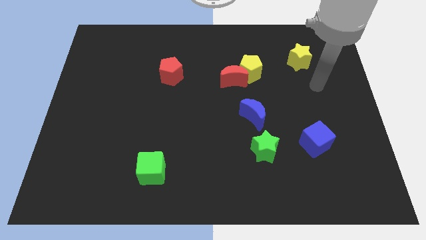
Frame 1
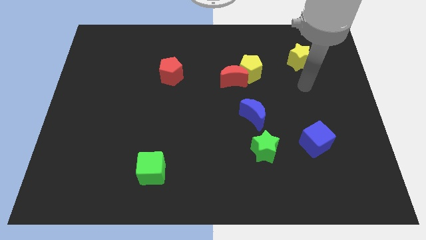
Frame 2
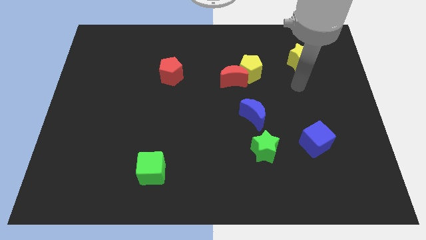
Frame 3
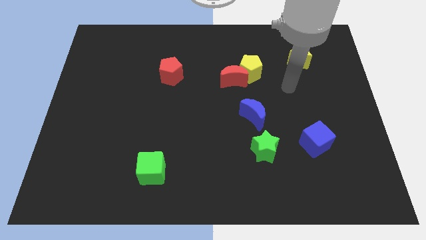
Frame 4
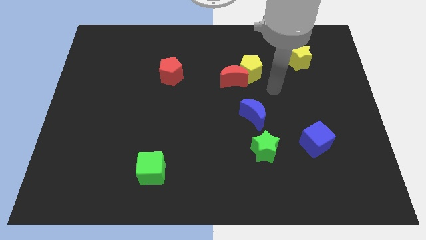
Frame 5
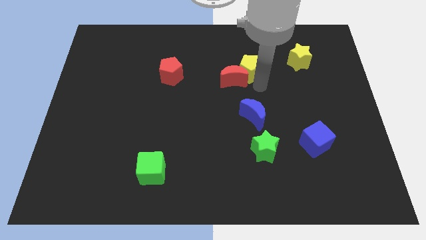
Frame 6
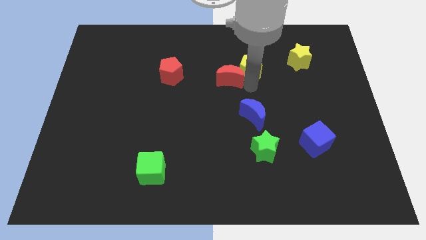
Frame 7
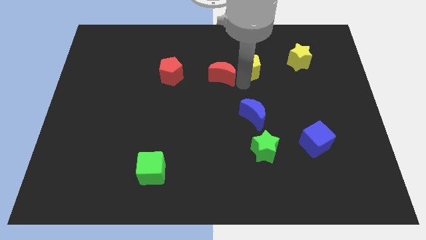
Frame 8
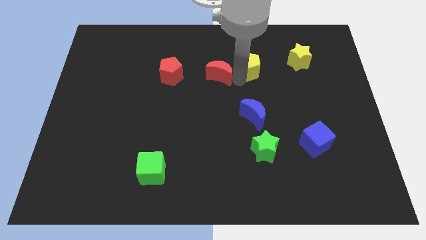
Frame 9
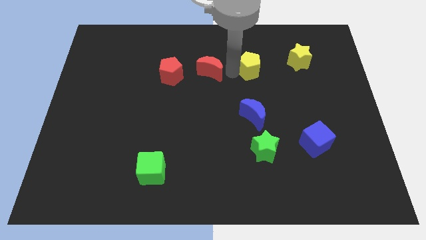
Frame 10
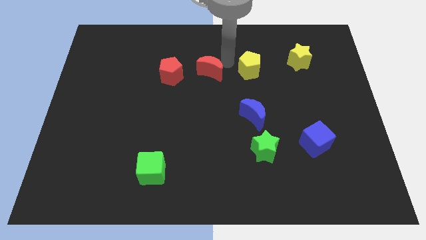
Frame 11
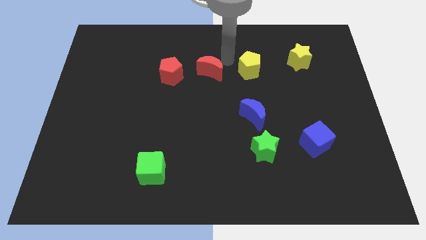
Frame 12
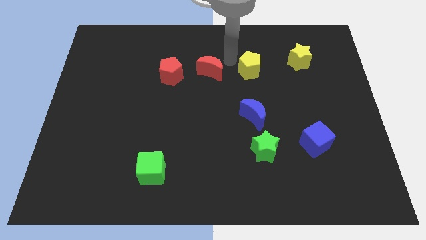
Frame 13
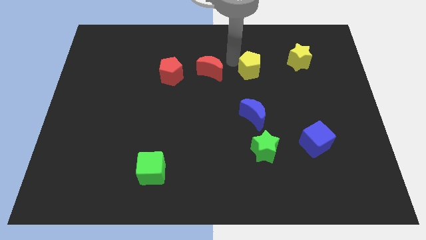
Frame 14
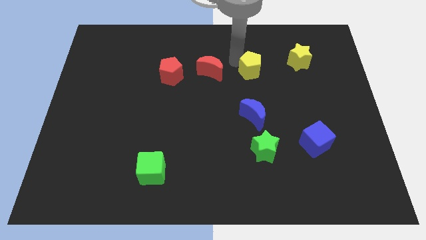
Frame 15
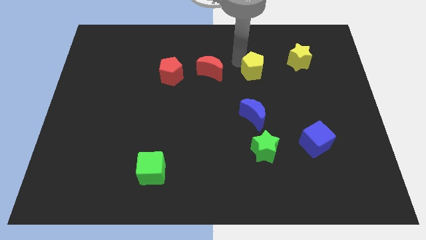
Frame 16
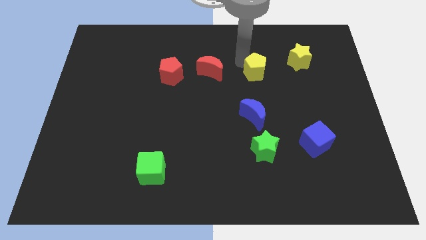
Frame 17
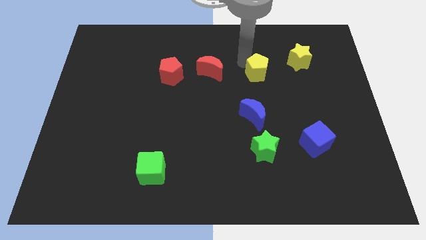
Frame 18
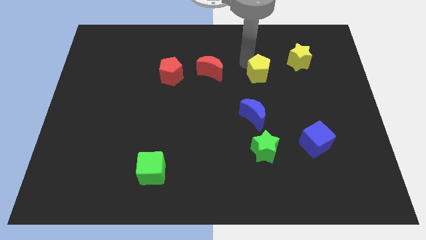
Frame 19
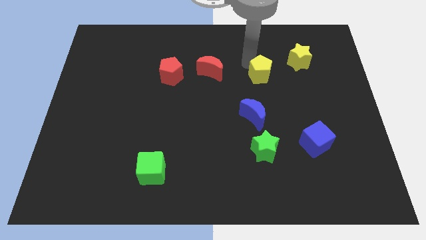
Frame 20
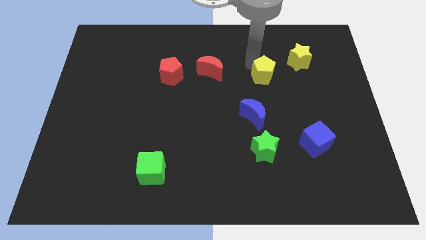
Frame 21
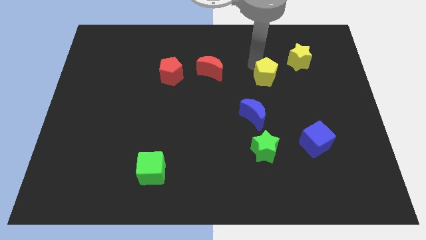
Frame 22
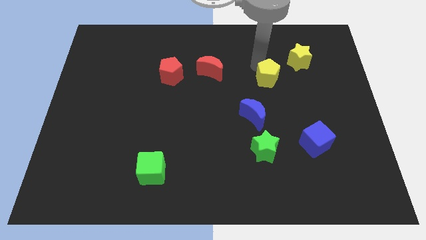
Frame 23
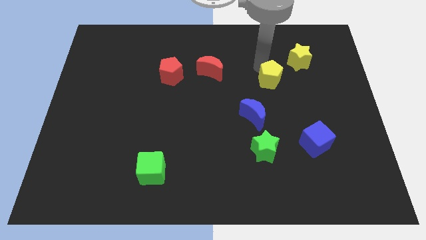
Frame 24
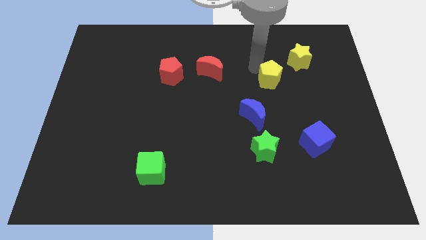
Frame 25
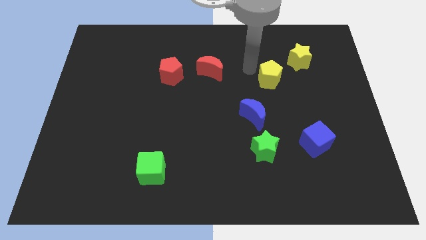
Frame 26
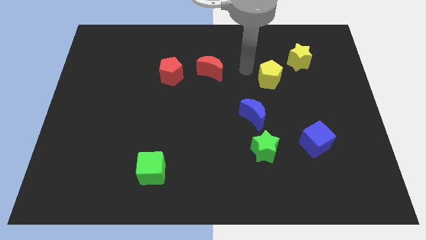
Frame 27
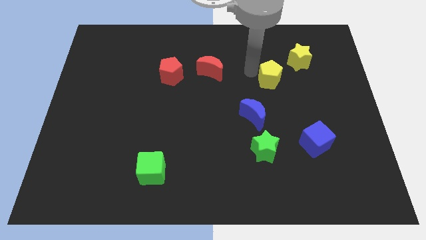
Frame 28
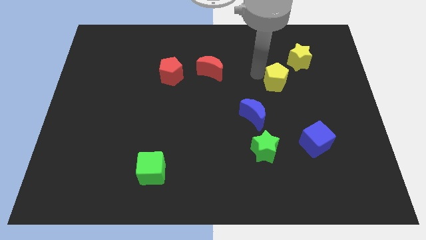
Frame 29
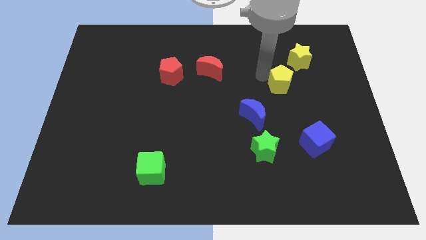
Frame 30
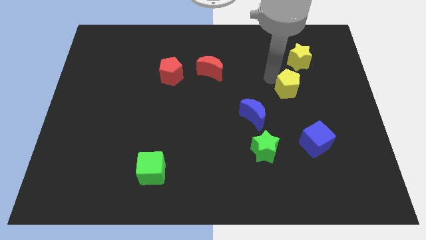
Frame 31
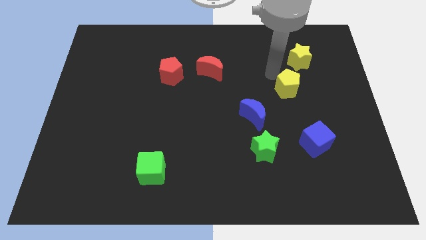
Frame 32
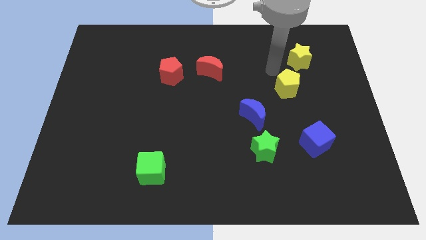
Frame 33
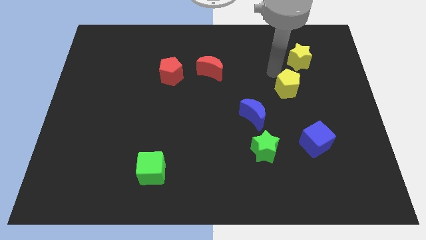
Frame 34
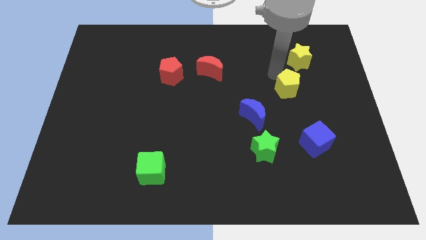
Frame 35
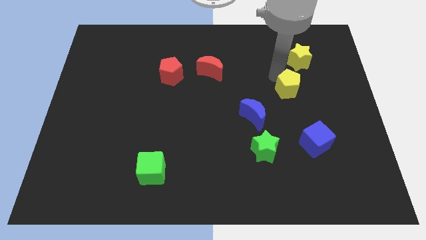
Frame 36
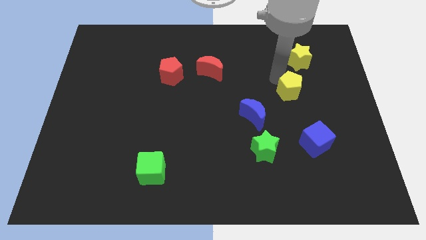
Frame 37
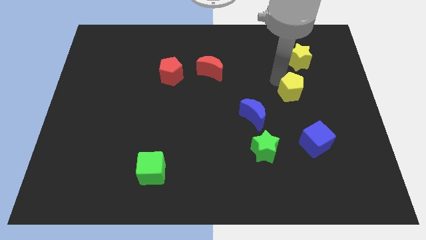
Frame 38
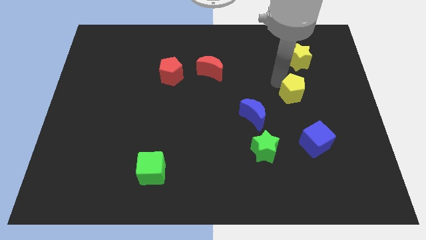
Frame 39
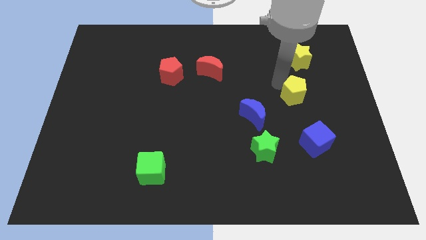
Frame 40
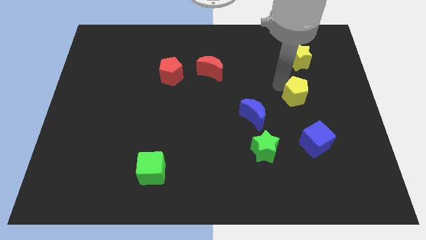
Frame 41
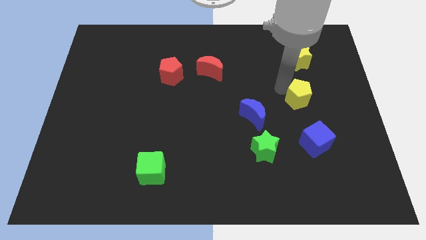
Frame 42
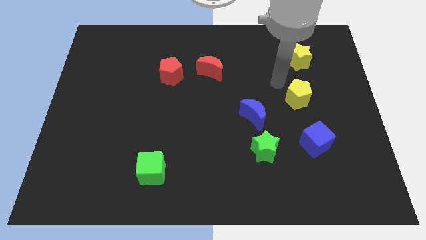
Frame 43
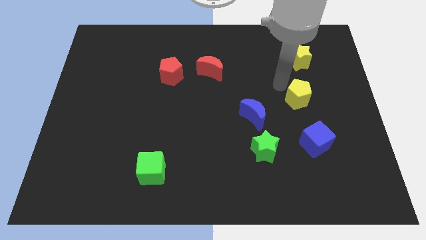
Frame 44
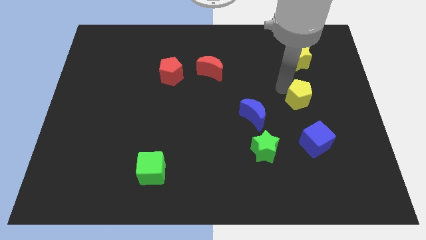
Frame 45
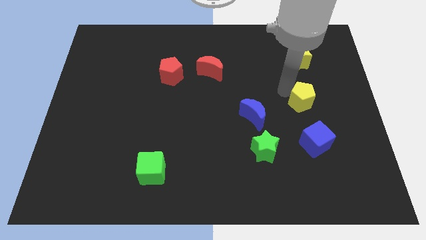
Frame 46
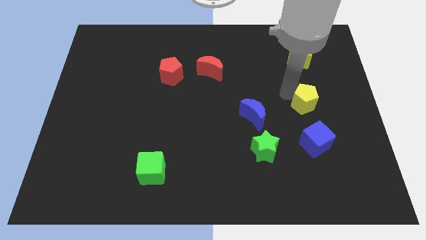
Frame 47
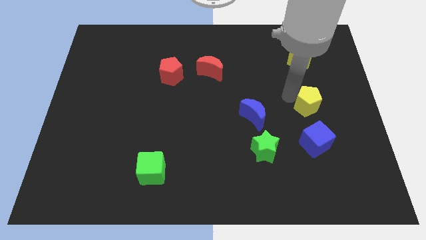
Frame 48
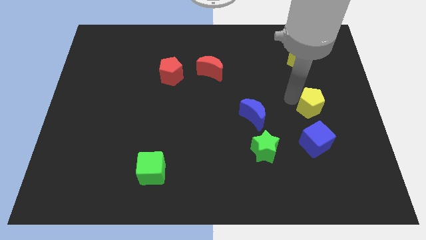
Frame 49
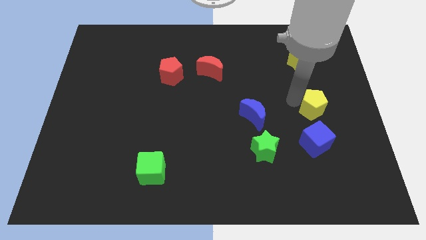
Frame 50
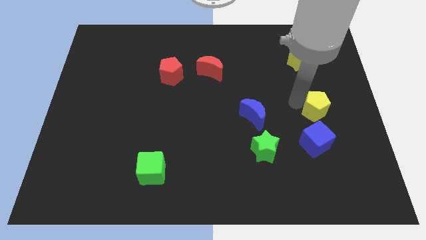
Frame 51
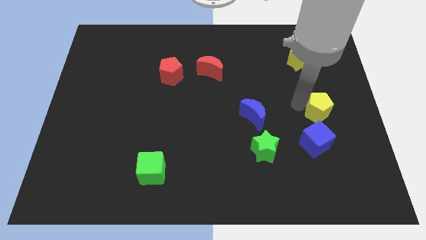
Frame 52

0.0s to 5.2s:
put the yellow pentagon to the top right of the blue cube

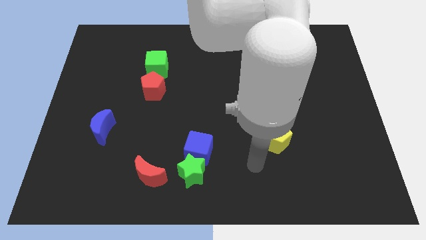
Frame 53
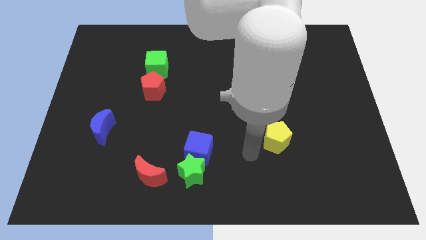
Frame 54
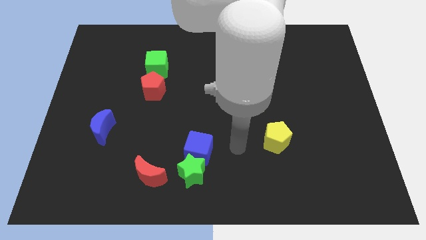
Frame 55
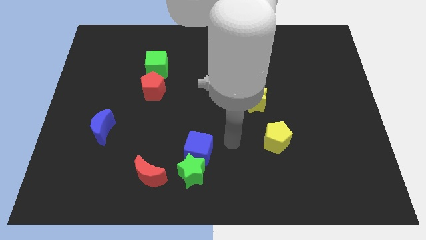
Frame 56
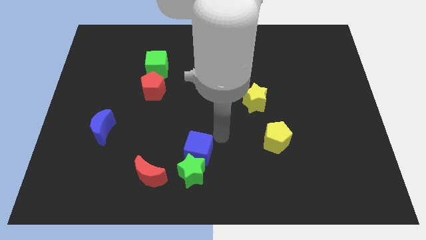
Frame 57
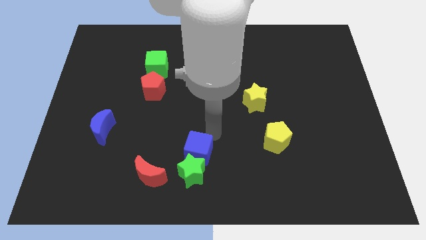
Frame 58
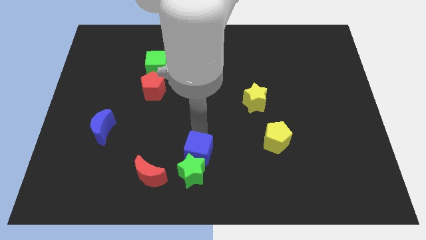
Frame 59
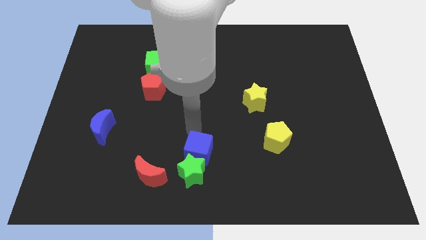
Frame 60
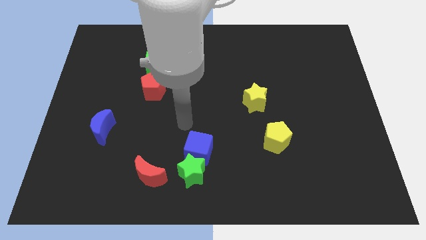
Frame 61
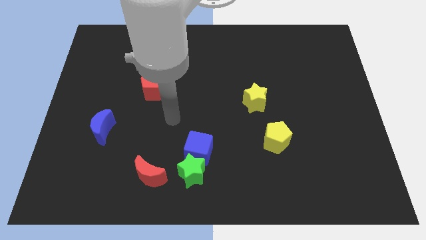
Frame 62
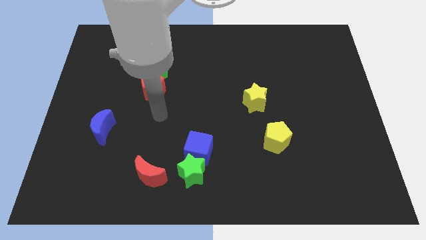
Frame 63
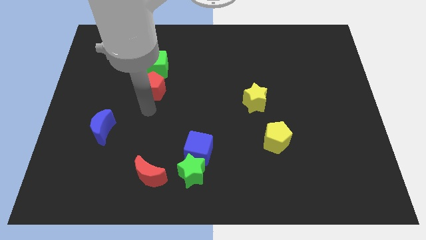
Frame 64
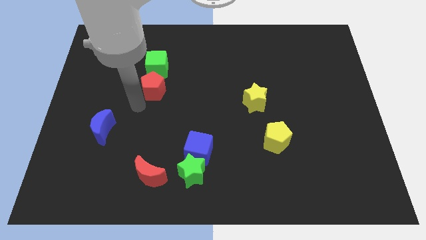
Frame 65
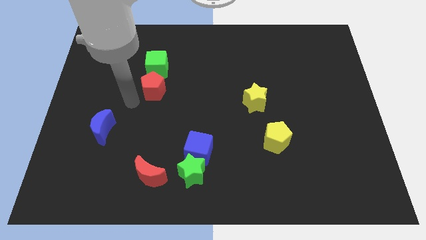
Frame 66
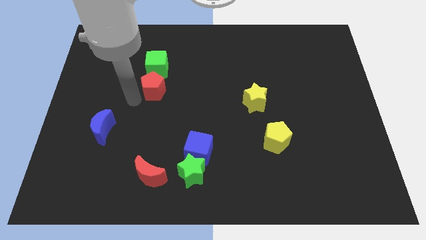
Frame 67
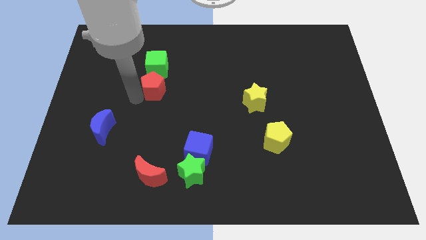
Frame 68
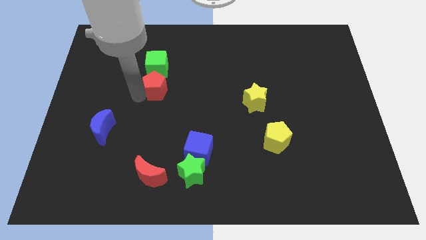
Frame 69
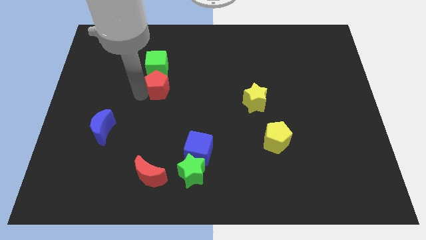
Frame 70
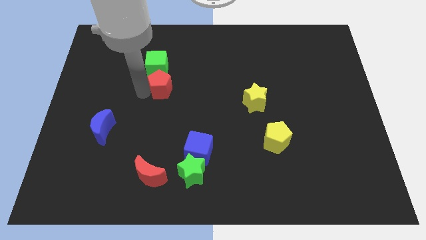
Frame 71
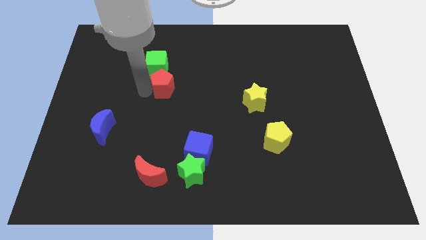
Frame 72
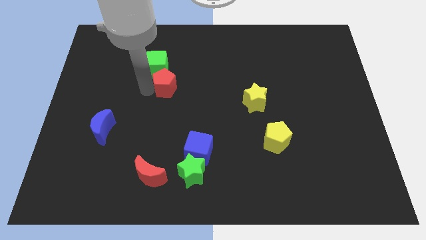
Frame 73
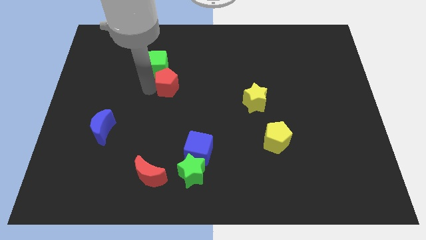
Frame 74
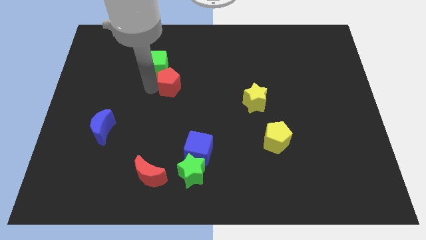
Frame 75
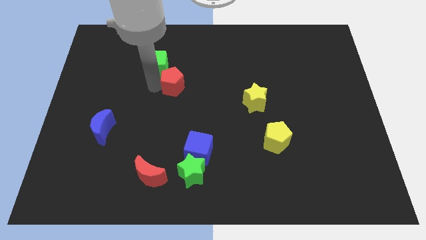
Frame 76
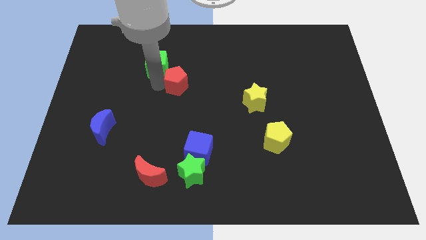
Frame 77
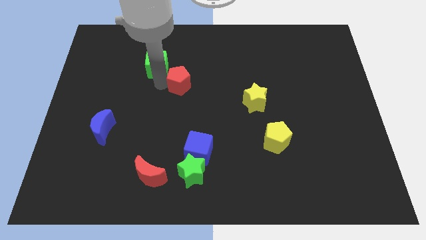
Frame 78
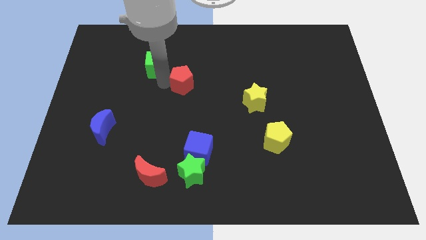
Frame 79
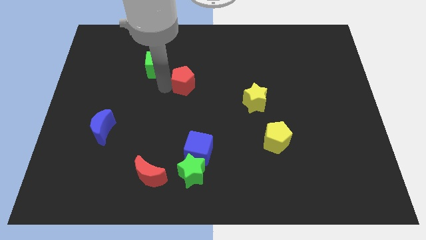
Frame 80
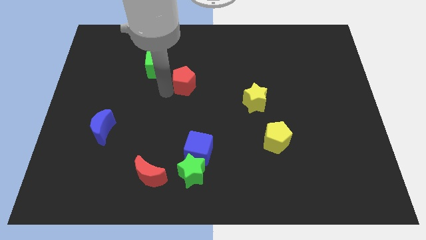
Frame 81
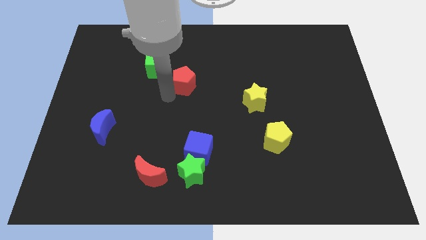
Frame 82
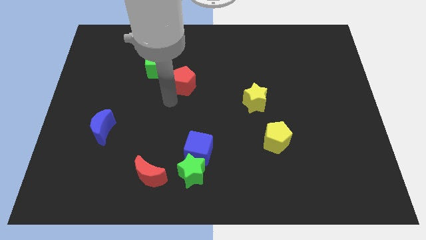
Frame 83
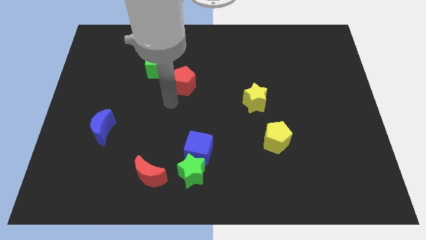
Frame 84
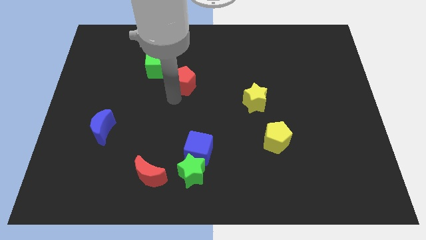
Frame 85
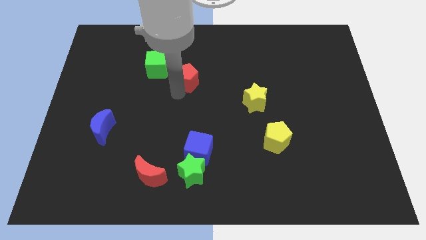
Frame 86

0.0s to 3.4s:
slide the red pentagon just right of the green cube

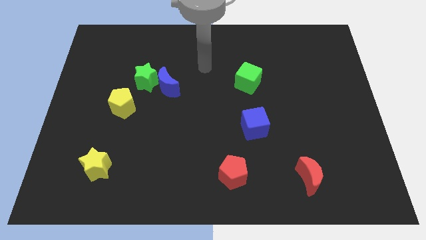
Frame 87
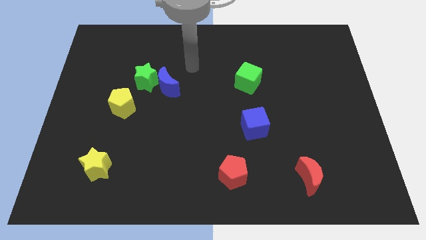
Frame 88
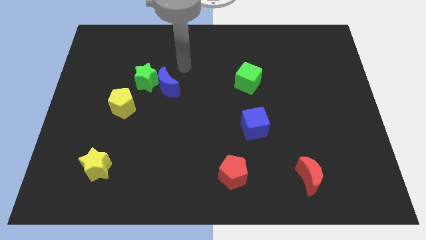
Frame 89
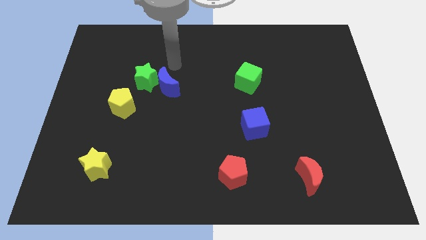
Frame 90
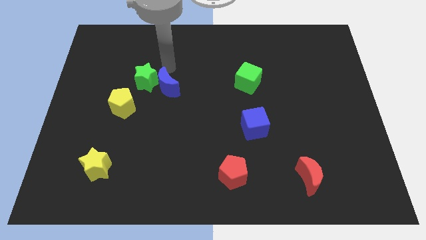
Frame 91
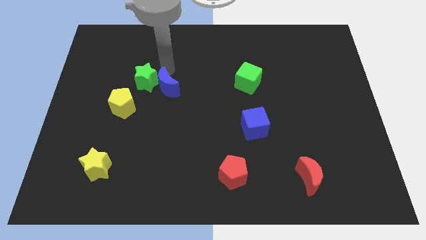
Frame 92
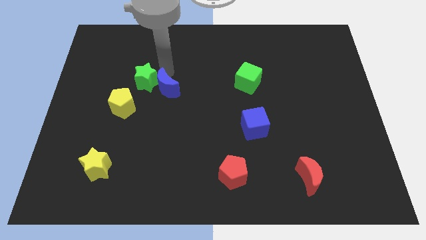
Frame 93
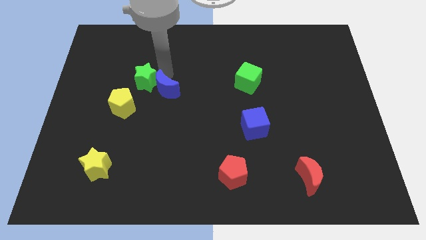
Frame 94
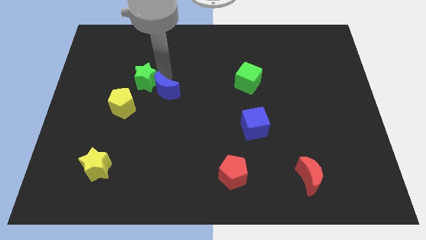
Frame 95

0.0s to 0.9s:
put the blue moon right of the yellow pentagon
